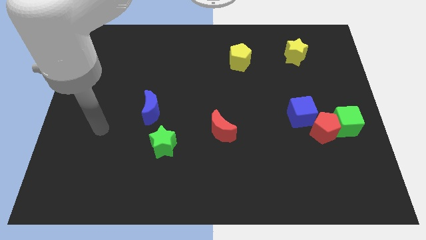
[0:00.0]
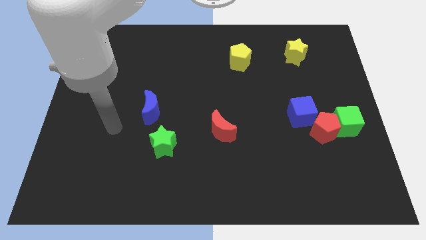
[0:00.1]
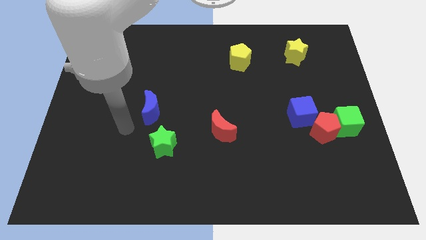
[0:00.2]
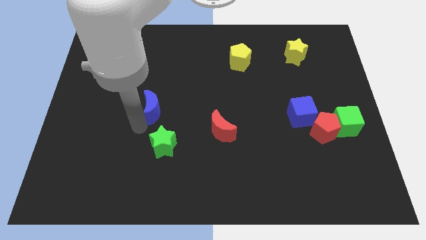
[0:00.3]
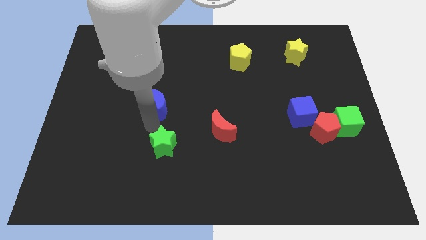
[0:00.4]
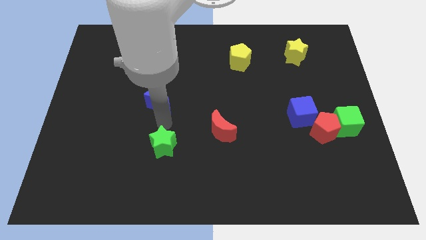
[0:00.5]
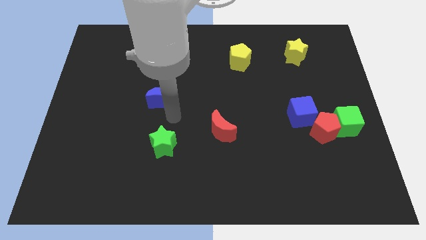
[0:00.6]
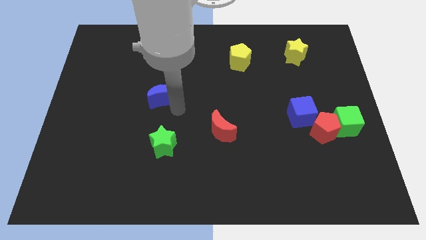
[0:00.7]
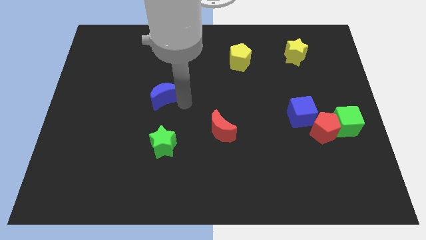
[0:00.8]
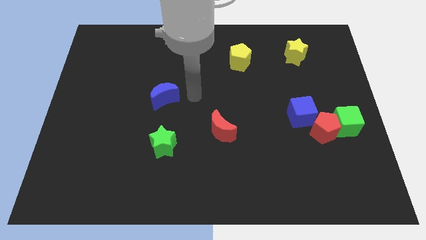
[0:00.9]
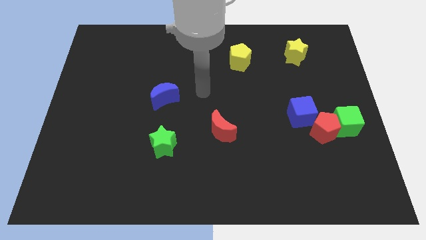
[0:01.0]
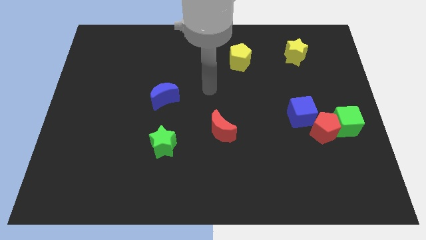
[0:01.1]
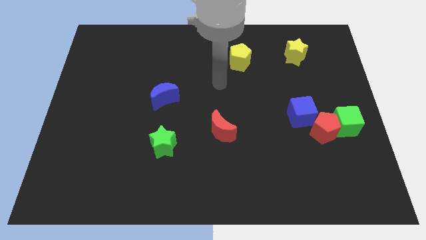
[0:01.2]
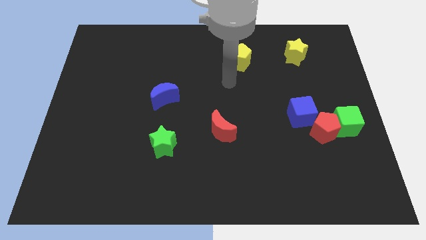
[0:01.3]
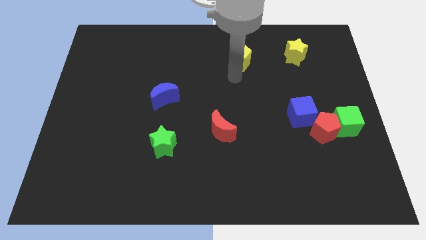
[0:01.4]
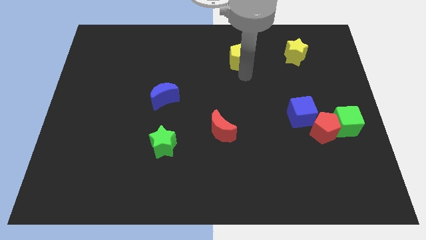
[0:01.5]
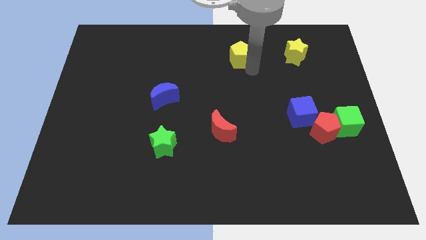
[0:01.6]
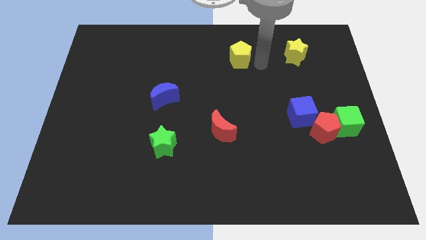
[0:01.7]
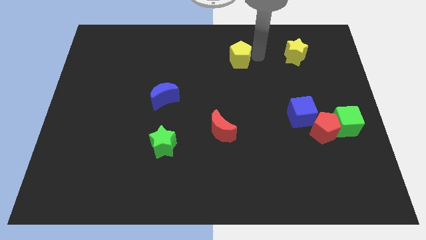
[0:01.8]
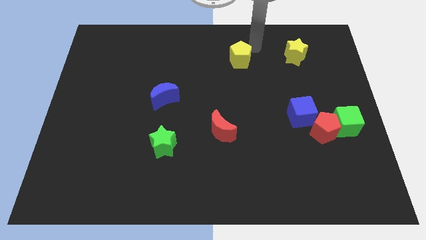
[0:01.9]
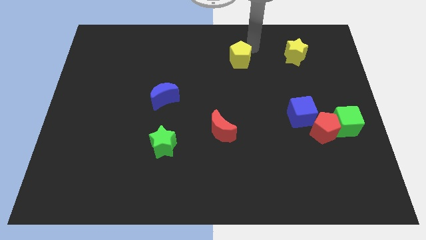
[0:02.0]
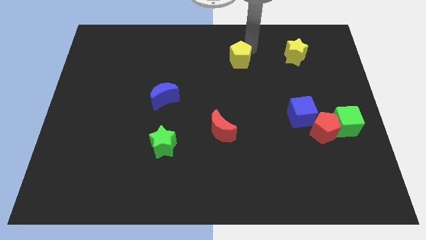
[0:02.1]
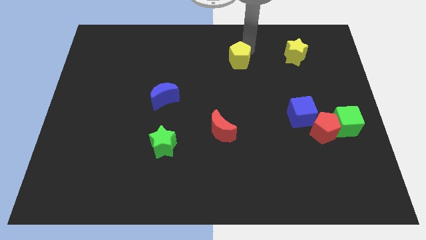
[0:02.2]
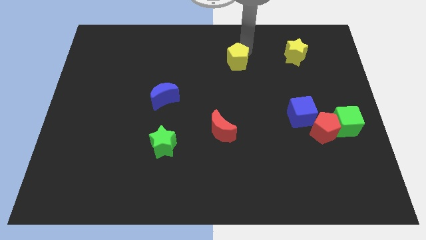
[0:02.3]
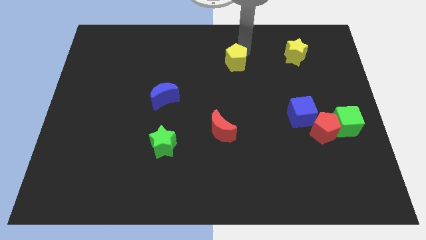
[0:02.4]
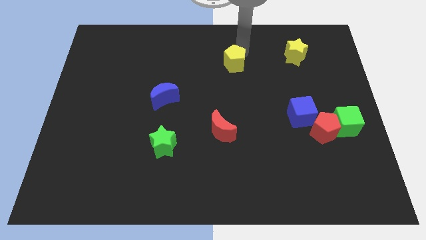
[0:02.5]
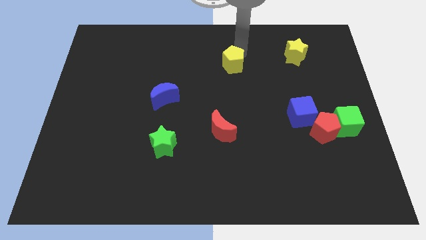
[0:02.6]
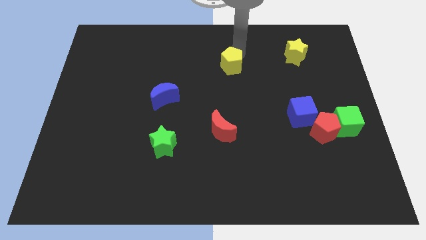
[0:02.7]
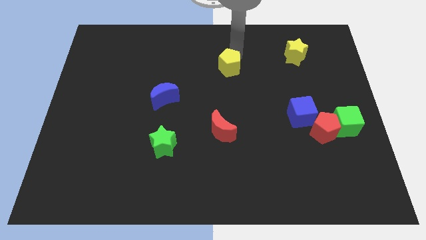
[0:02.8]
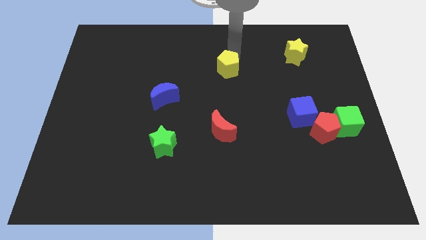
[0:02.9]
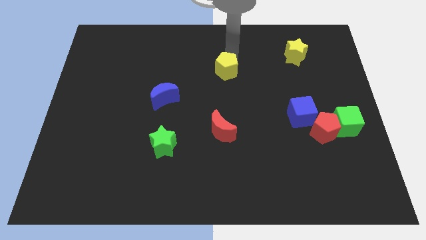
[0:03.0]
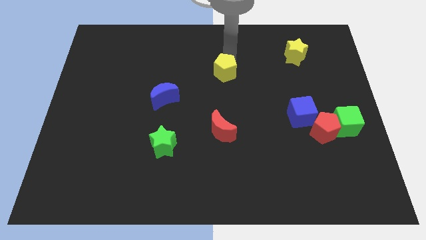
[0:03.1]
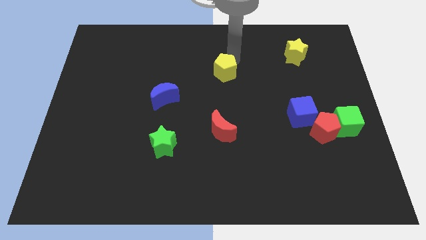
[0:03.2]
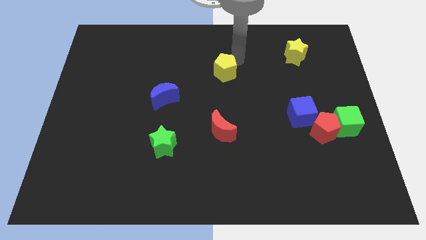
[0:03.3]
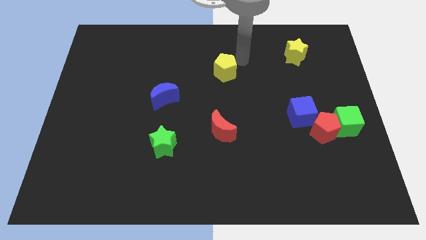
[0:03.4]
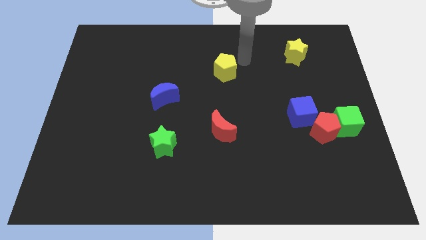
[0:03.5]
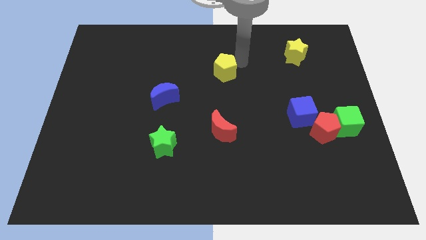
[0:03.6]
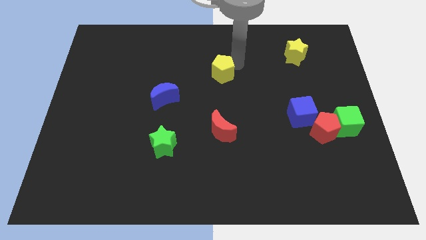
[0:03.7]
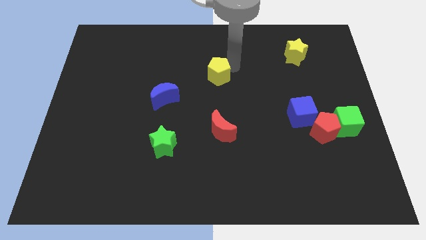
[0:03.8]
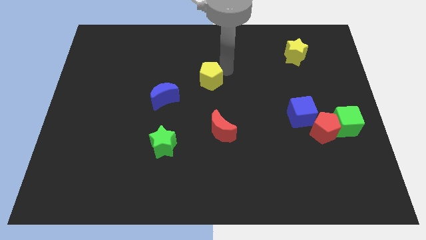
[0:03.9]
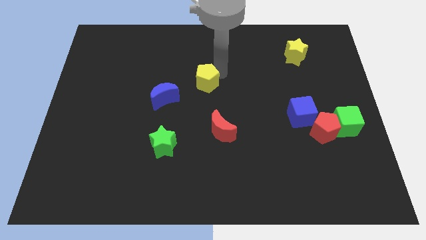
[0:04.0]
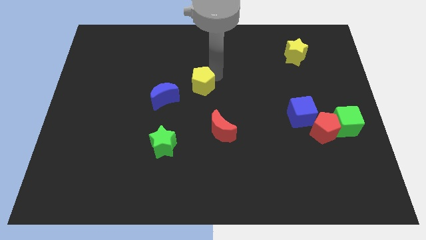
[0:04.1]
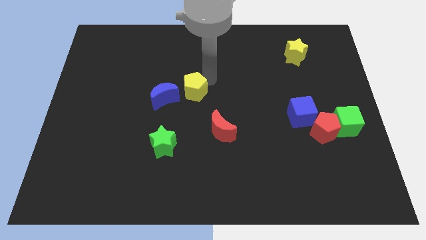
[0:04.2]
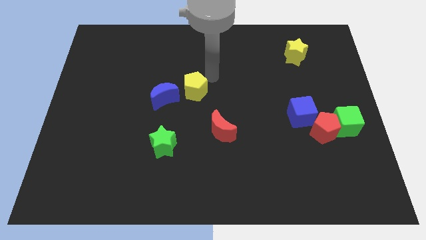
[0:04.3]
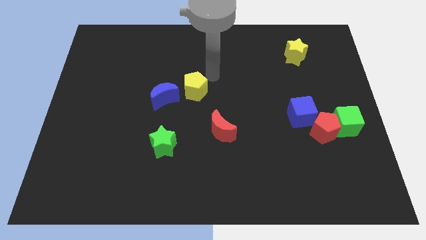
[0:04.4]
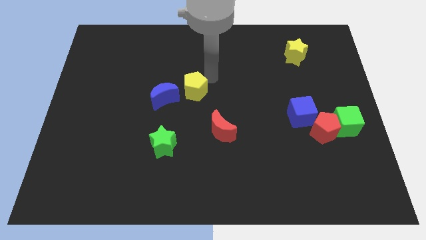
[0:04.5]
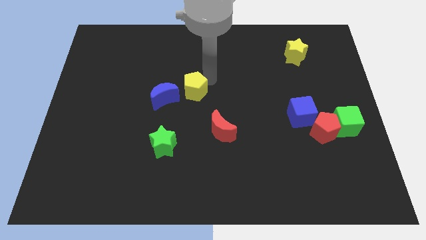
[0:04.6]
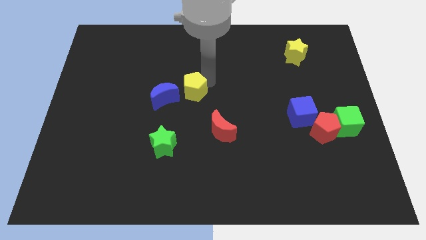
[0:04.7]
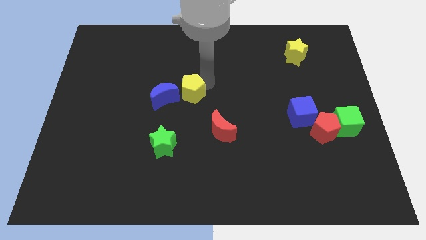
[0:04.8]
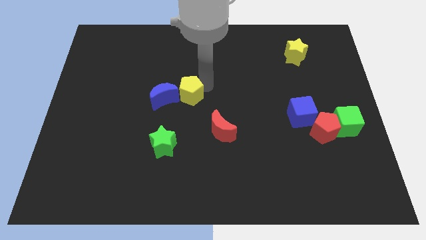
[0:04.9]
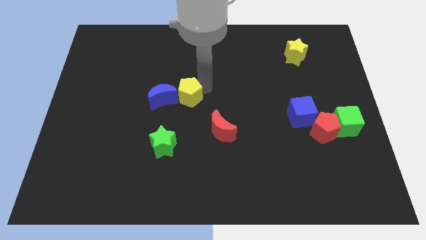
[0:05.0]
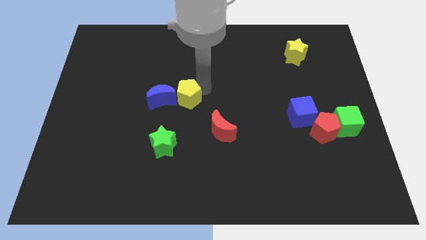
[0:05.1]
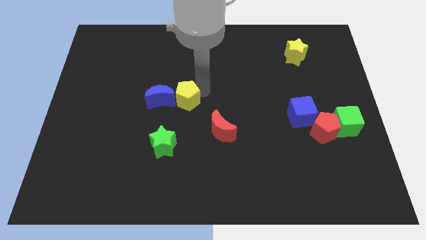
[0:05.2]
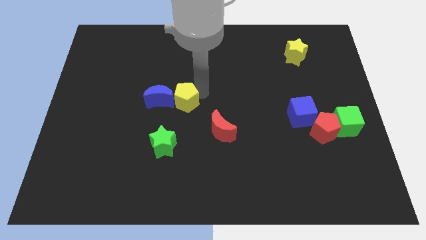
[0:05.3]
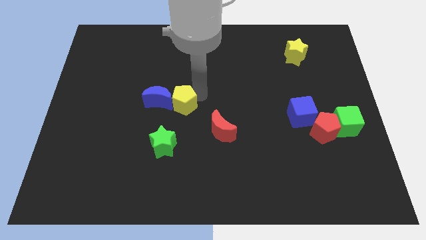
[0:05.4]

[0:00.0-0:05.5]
move the yellow pentagon downwards and left diagonally

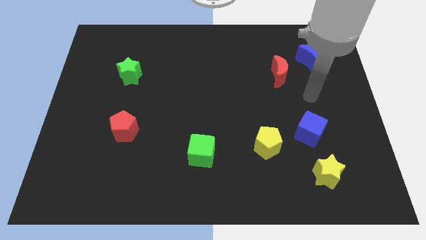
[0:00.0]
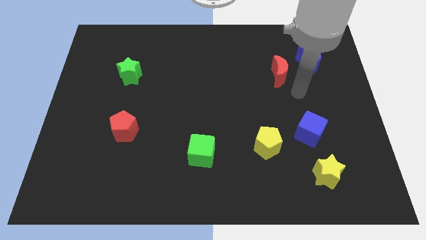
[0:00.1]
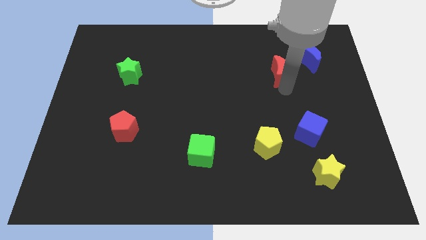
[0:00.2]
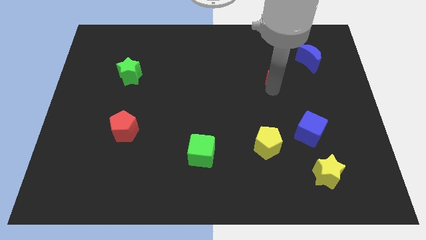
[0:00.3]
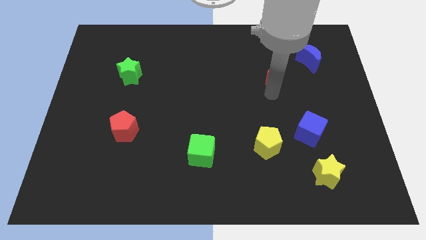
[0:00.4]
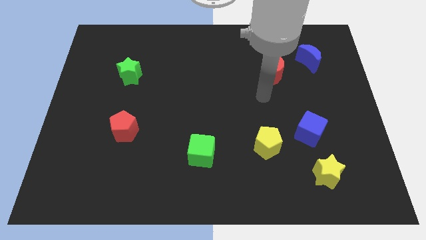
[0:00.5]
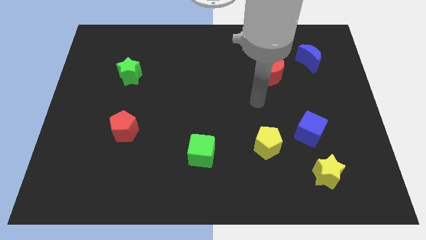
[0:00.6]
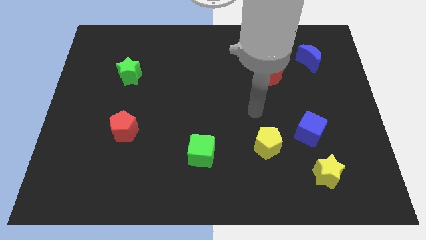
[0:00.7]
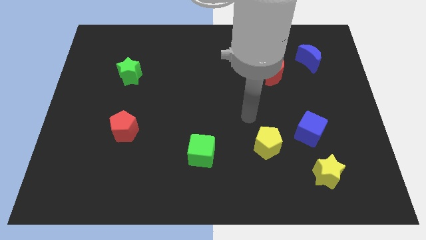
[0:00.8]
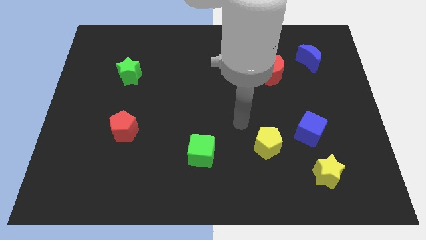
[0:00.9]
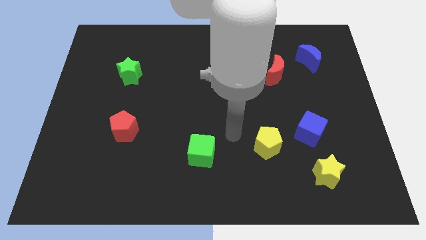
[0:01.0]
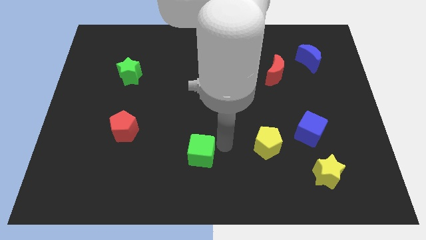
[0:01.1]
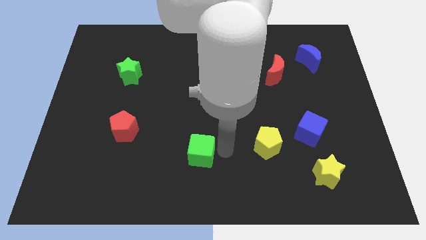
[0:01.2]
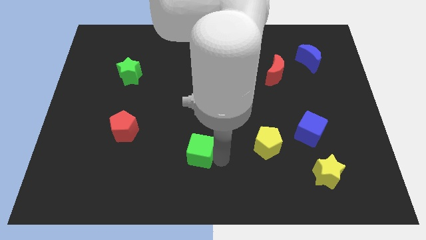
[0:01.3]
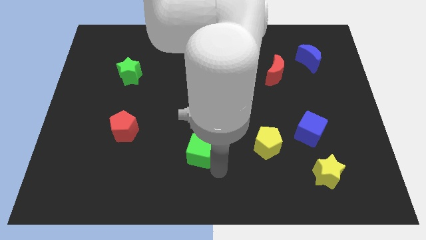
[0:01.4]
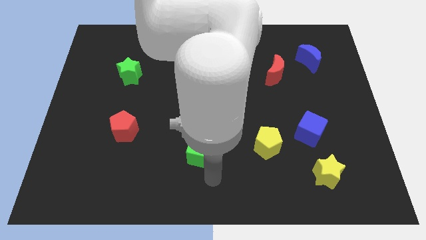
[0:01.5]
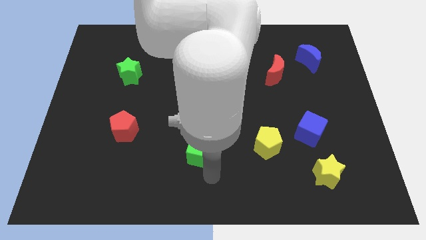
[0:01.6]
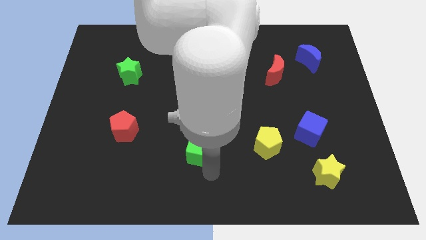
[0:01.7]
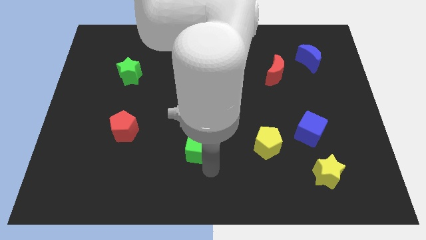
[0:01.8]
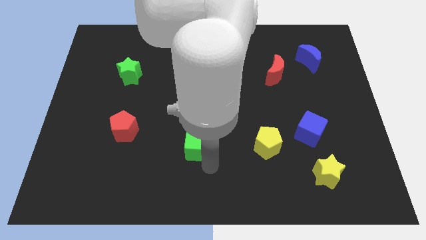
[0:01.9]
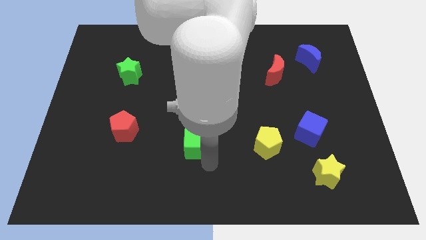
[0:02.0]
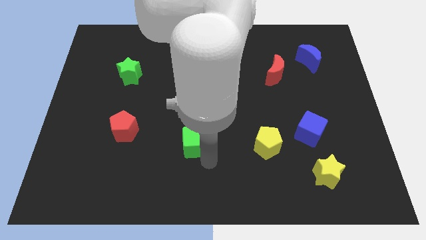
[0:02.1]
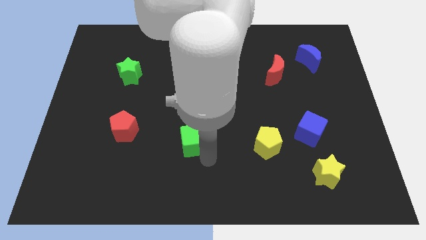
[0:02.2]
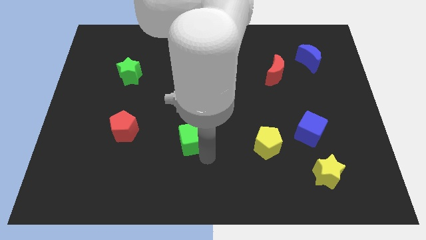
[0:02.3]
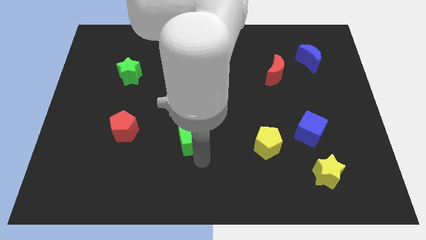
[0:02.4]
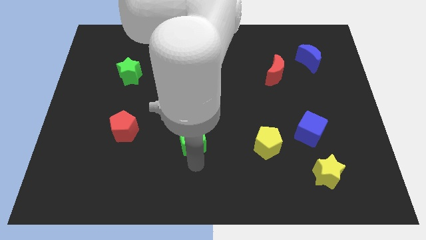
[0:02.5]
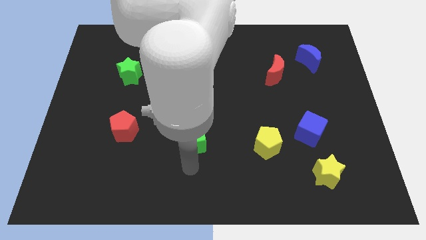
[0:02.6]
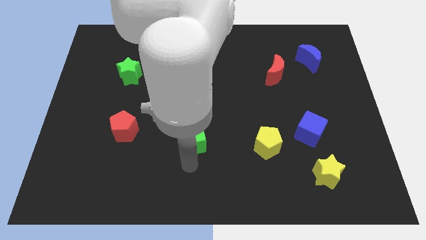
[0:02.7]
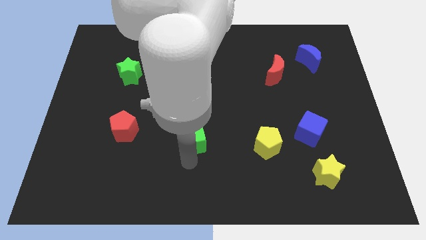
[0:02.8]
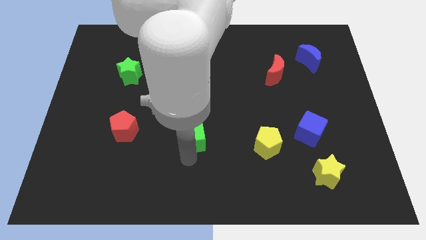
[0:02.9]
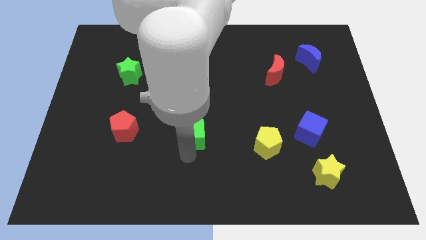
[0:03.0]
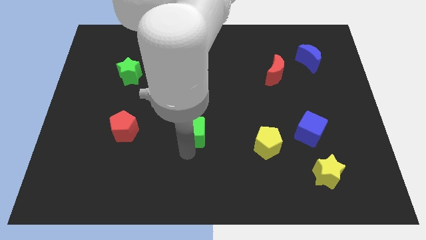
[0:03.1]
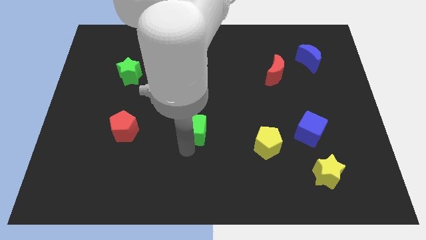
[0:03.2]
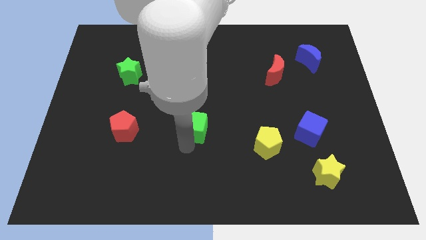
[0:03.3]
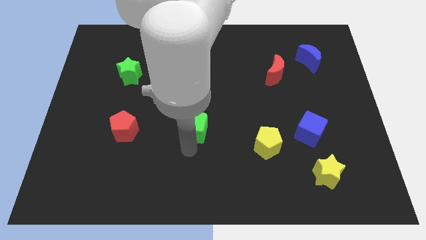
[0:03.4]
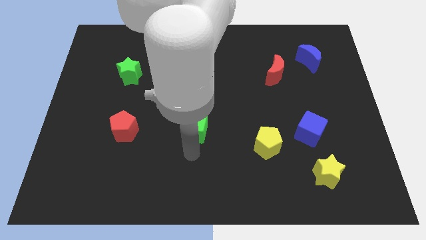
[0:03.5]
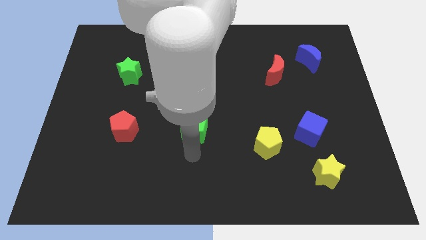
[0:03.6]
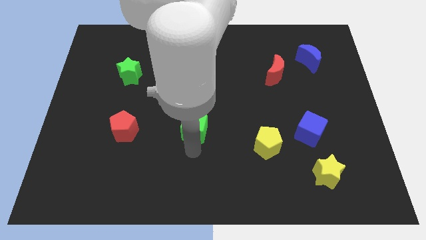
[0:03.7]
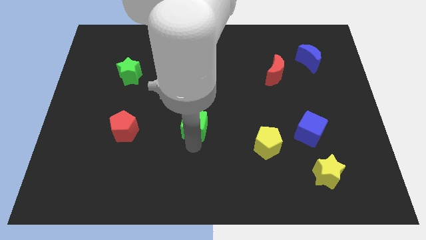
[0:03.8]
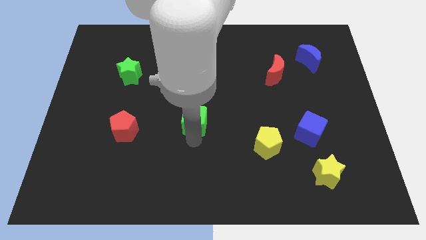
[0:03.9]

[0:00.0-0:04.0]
slightly push the green cube upwards
